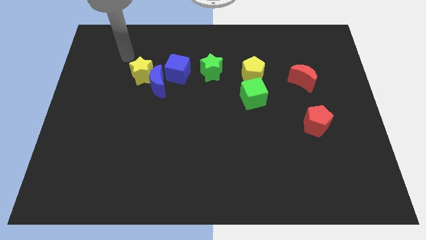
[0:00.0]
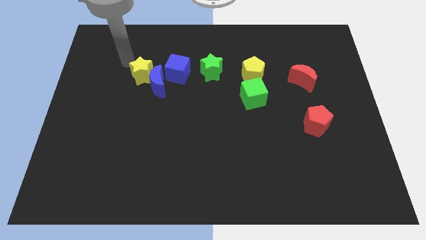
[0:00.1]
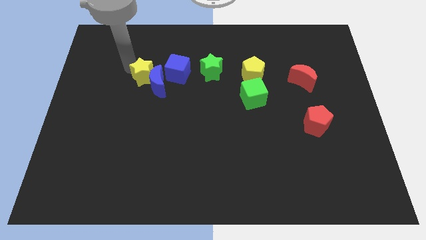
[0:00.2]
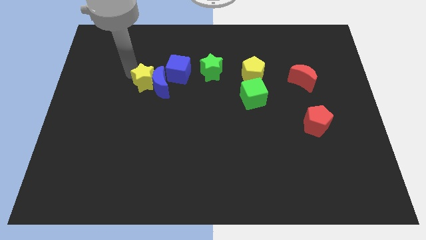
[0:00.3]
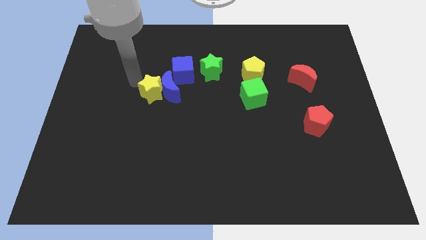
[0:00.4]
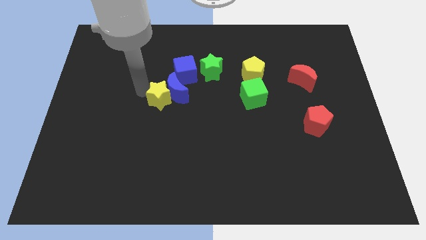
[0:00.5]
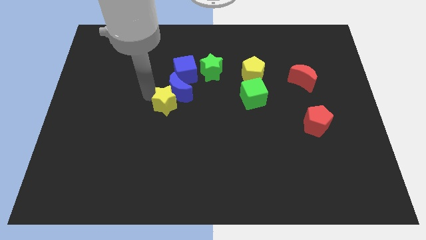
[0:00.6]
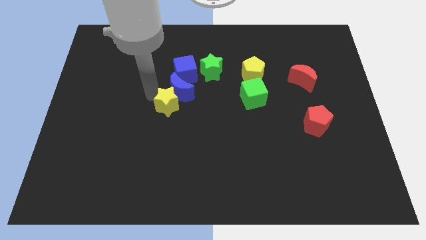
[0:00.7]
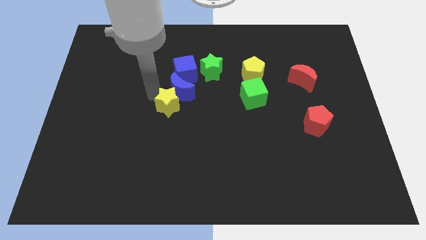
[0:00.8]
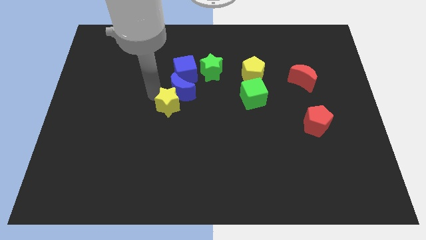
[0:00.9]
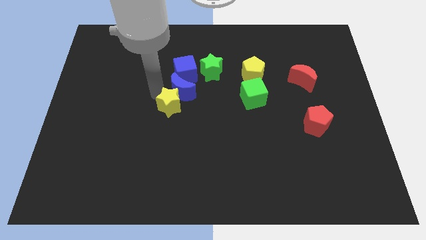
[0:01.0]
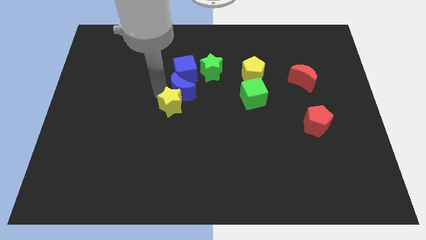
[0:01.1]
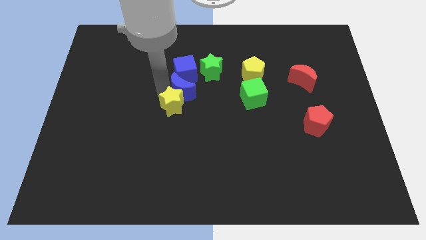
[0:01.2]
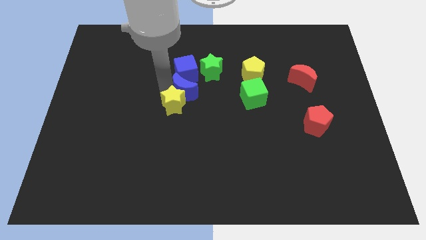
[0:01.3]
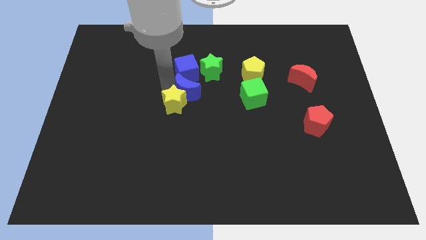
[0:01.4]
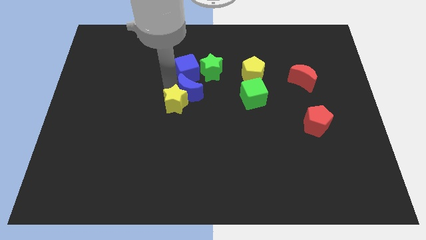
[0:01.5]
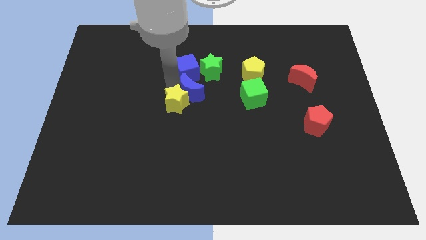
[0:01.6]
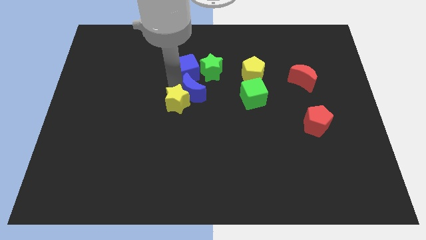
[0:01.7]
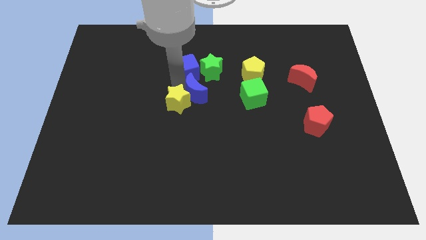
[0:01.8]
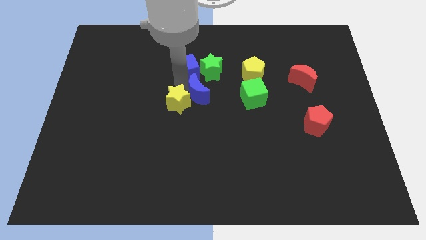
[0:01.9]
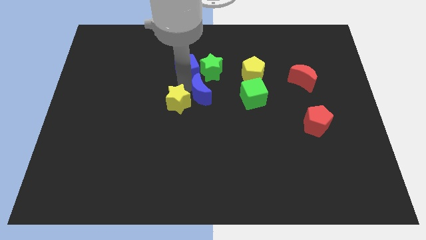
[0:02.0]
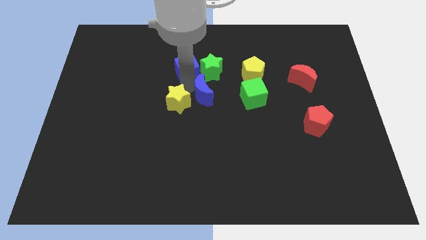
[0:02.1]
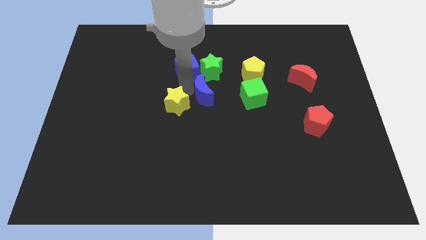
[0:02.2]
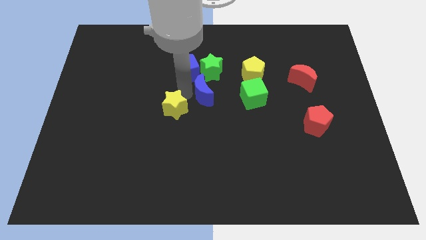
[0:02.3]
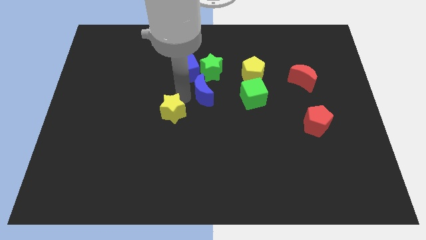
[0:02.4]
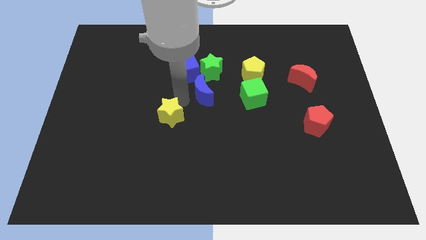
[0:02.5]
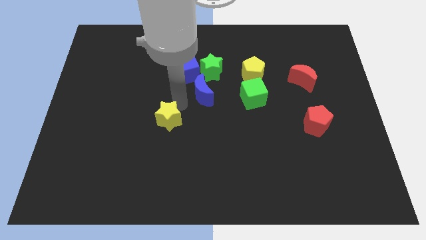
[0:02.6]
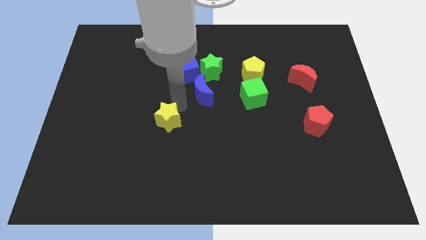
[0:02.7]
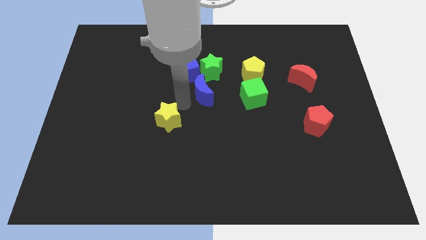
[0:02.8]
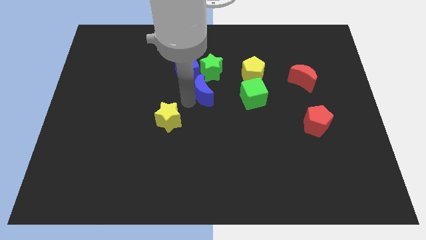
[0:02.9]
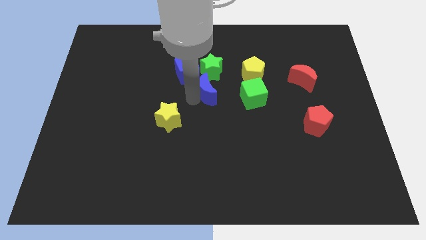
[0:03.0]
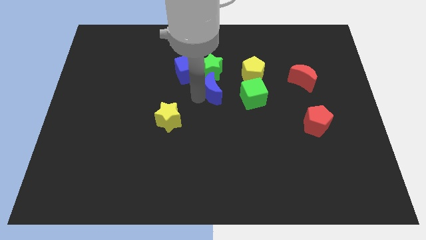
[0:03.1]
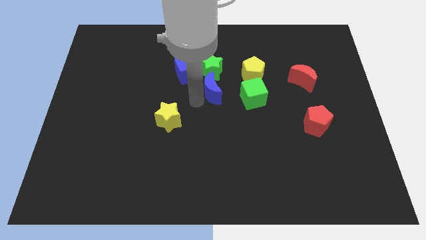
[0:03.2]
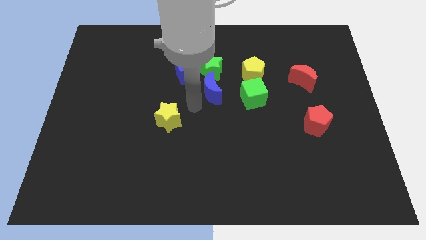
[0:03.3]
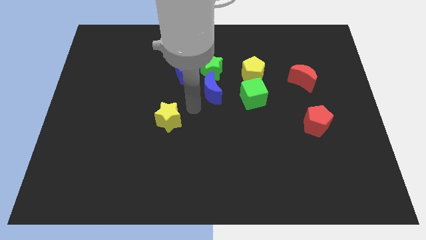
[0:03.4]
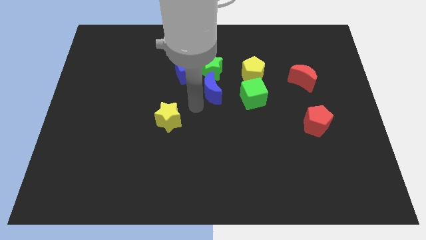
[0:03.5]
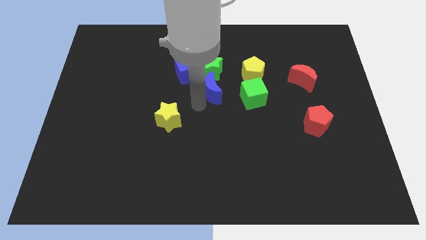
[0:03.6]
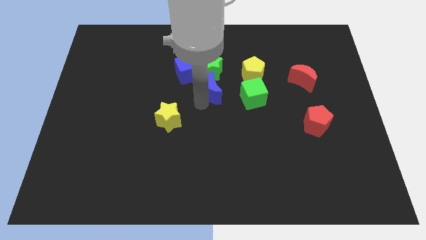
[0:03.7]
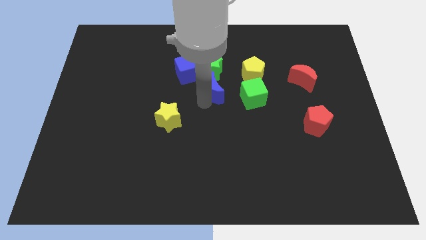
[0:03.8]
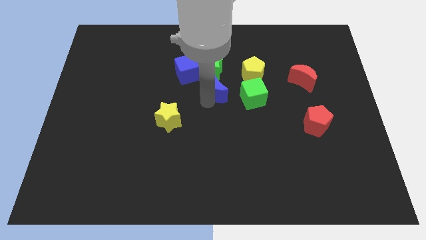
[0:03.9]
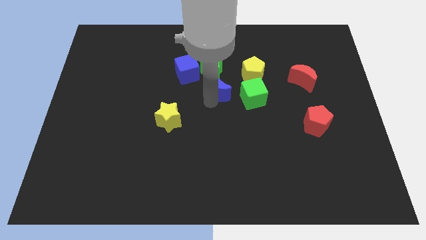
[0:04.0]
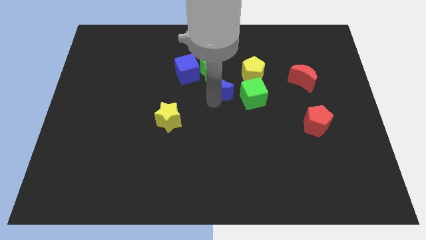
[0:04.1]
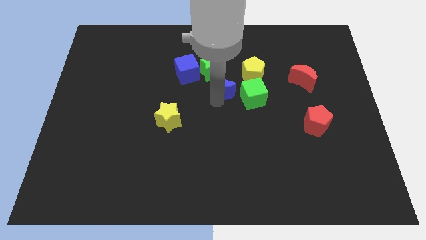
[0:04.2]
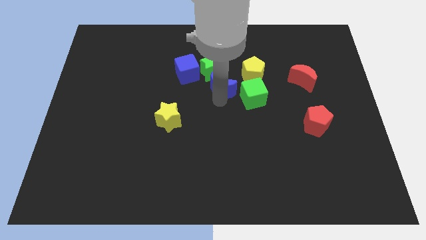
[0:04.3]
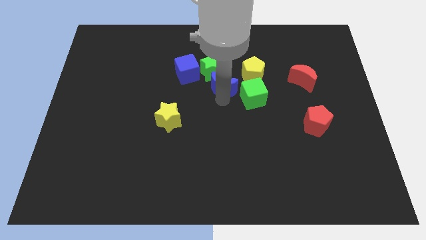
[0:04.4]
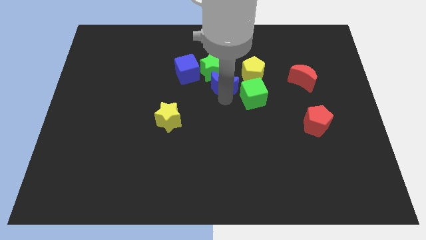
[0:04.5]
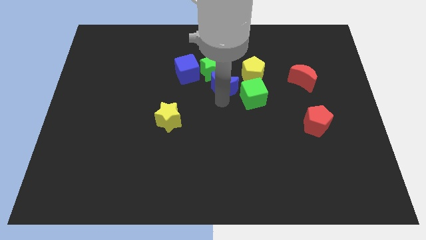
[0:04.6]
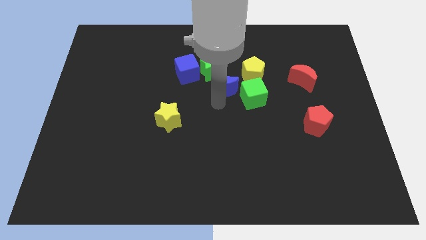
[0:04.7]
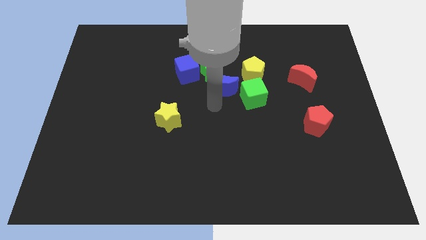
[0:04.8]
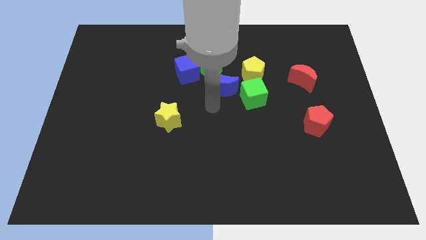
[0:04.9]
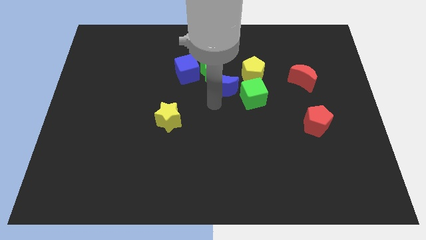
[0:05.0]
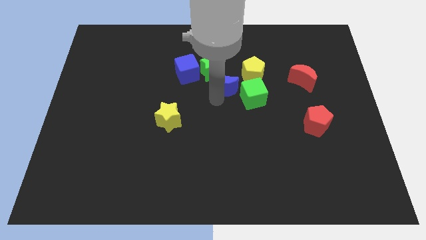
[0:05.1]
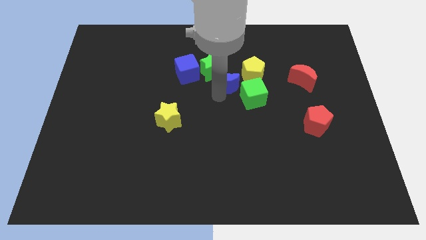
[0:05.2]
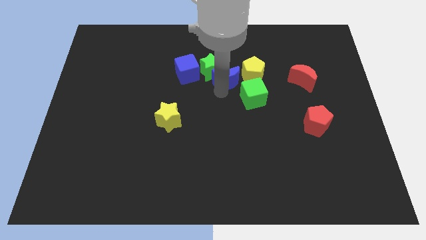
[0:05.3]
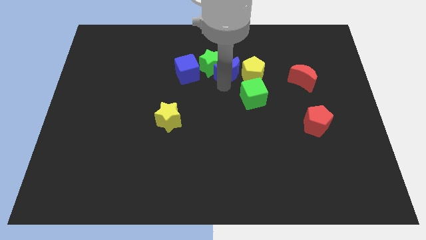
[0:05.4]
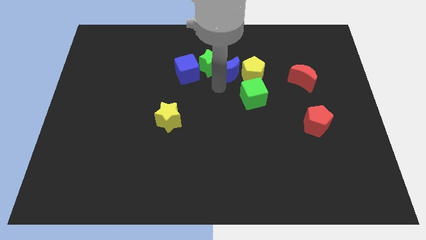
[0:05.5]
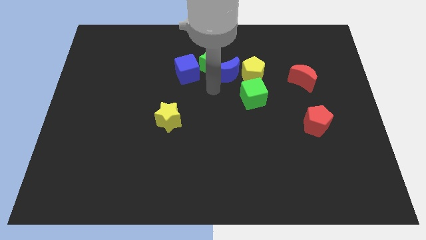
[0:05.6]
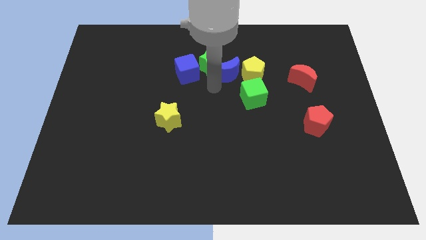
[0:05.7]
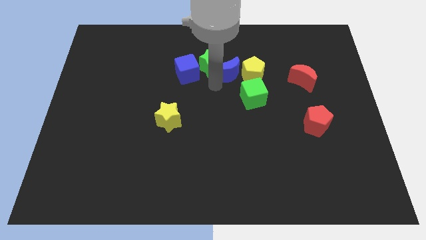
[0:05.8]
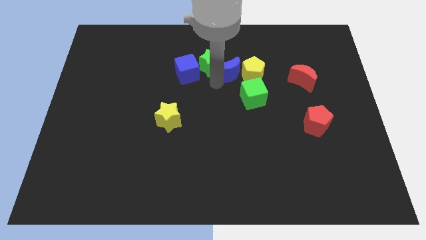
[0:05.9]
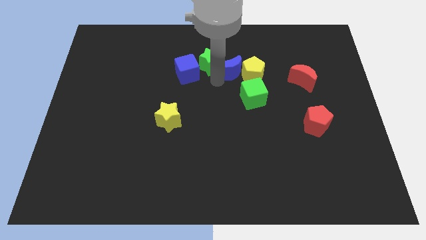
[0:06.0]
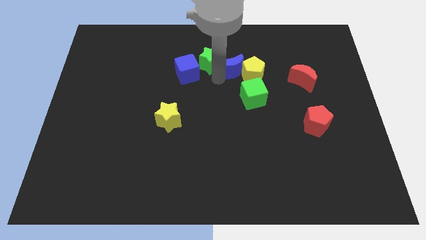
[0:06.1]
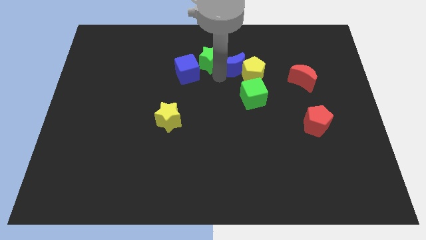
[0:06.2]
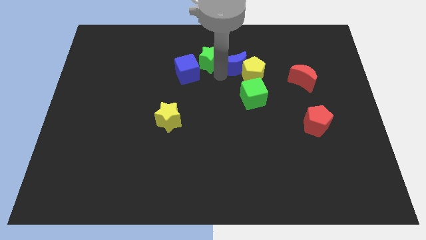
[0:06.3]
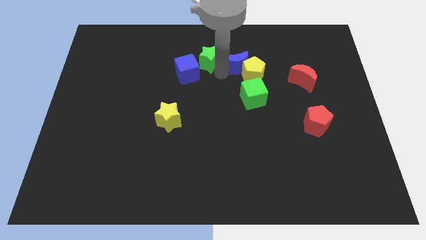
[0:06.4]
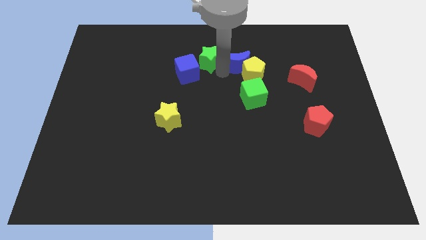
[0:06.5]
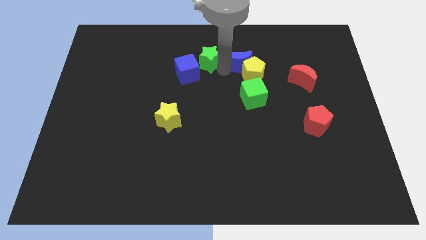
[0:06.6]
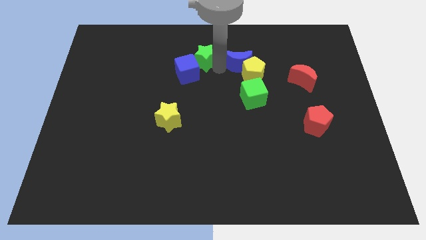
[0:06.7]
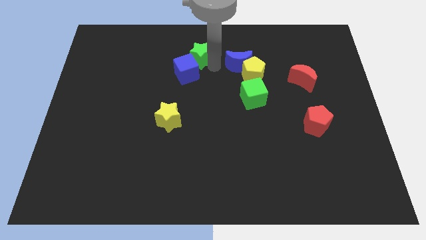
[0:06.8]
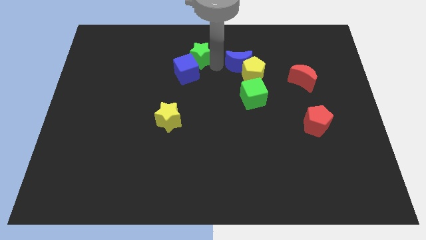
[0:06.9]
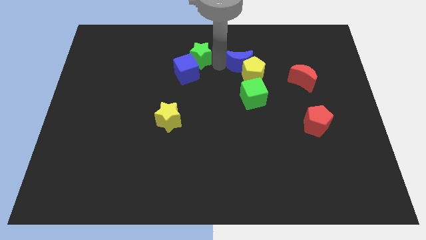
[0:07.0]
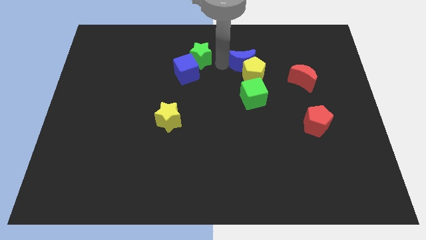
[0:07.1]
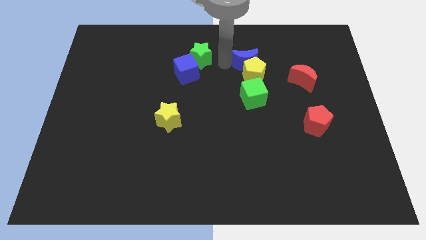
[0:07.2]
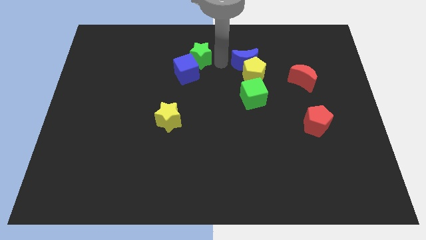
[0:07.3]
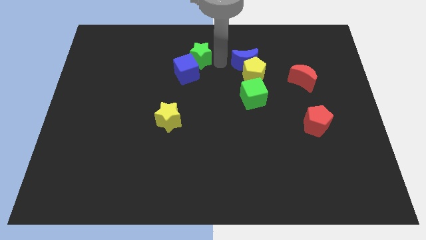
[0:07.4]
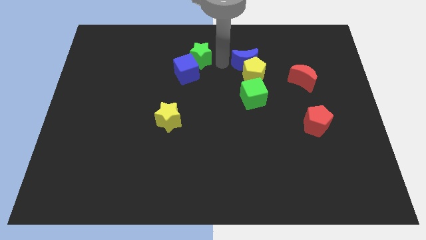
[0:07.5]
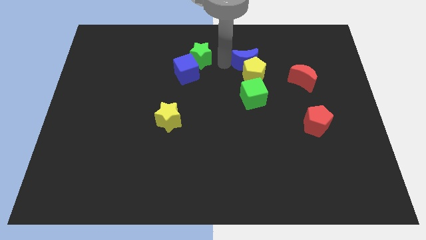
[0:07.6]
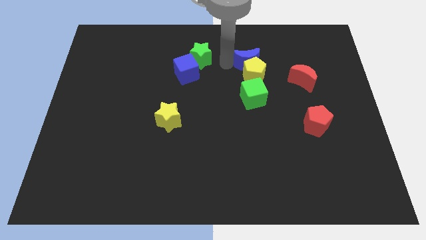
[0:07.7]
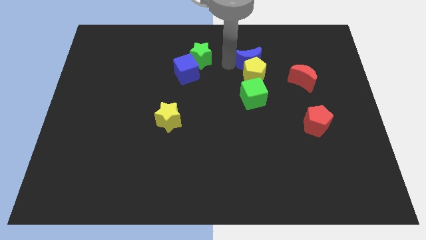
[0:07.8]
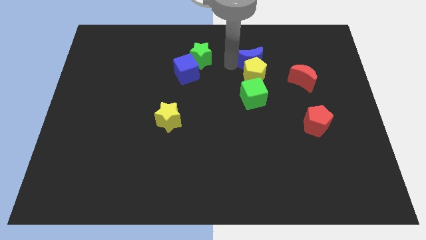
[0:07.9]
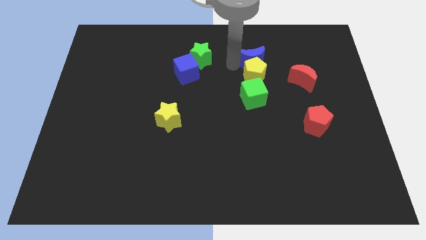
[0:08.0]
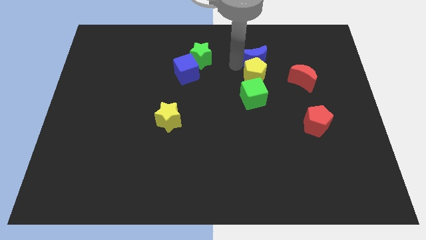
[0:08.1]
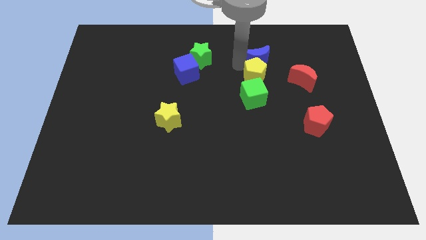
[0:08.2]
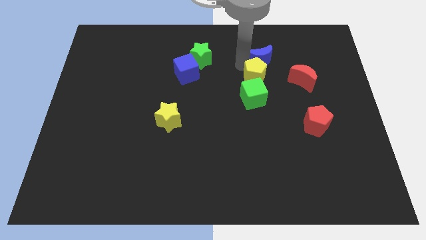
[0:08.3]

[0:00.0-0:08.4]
move the blue moon diagonally up and to the left of the red moon
